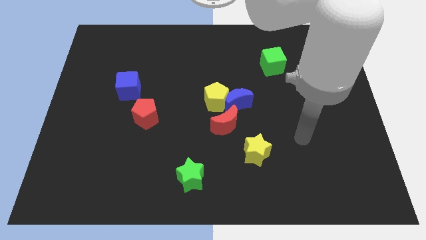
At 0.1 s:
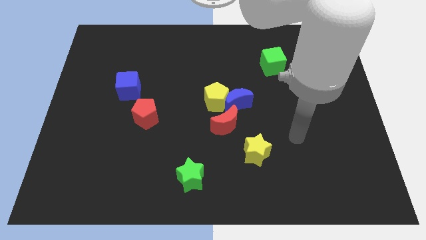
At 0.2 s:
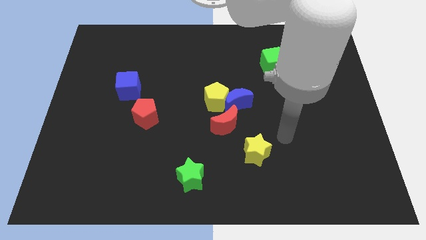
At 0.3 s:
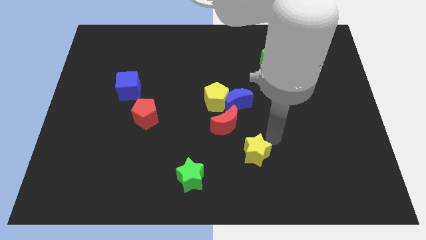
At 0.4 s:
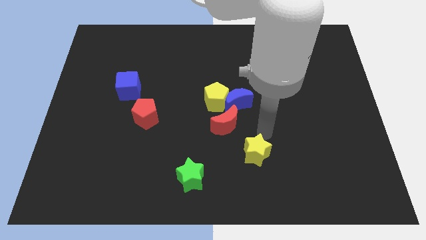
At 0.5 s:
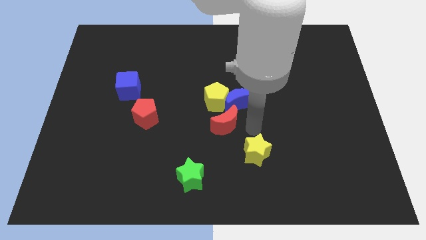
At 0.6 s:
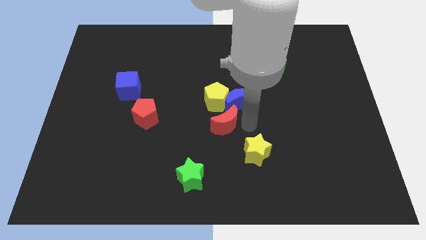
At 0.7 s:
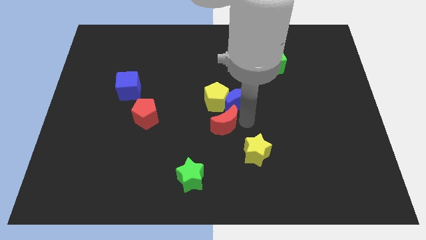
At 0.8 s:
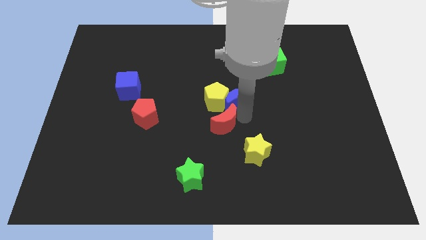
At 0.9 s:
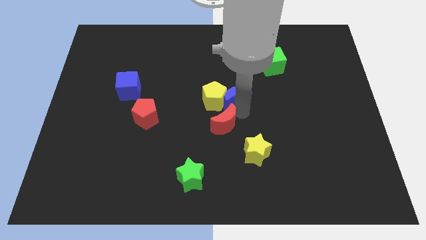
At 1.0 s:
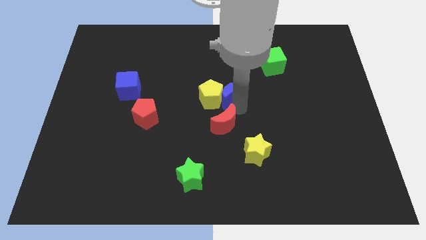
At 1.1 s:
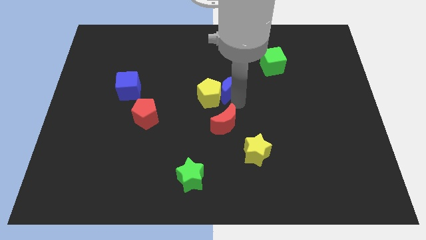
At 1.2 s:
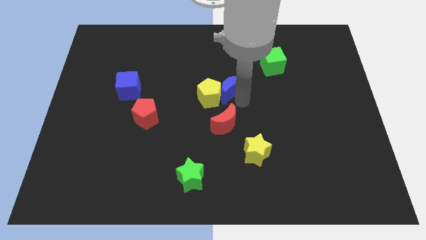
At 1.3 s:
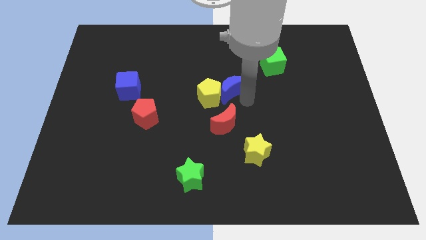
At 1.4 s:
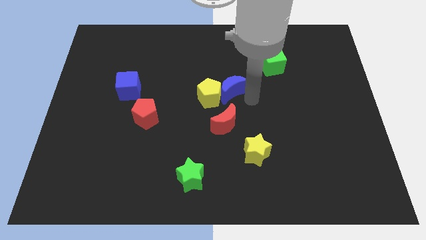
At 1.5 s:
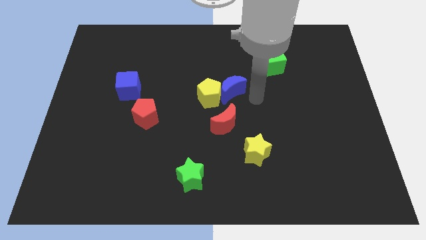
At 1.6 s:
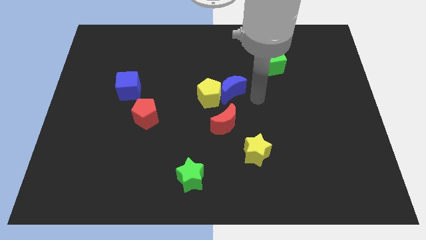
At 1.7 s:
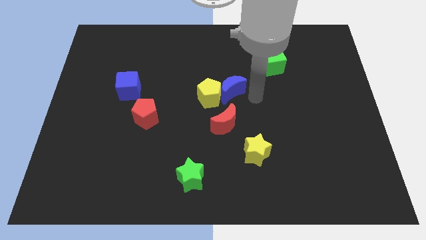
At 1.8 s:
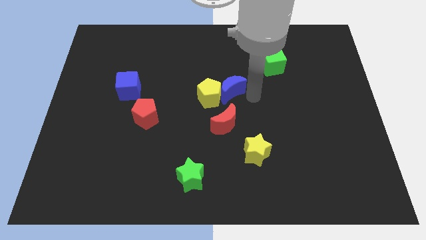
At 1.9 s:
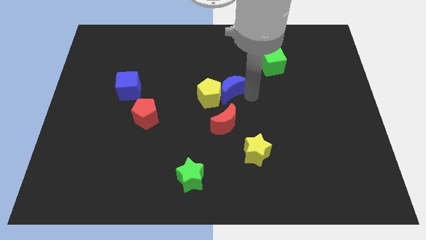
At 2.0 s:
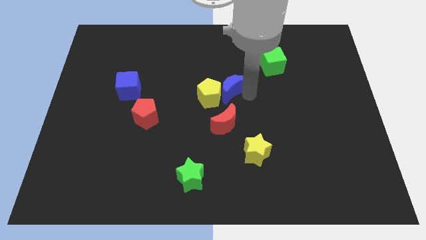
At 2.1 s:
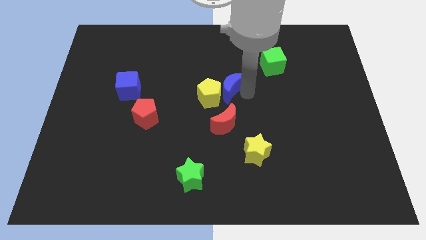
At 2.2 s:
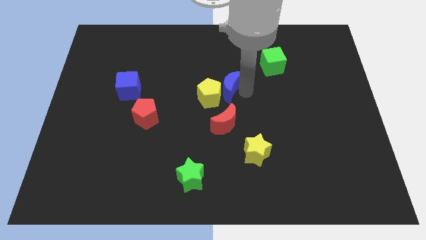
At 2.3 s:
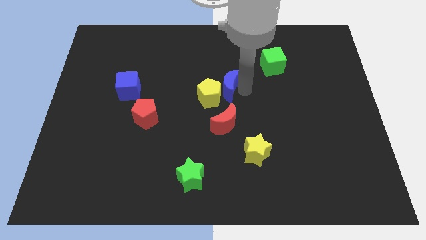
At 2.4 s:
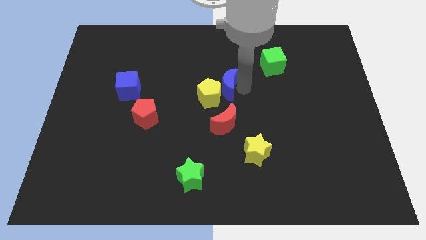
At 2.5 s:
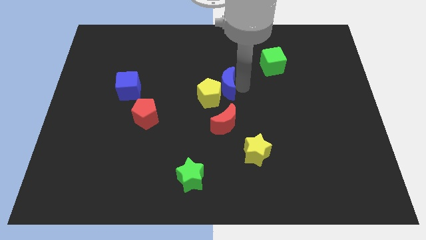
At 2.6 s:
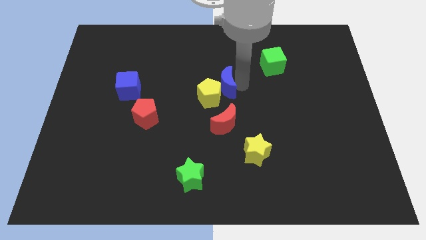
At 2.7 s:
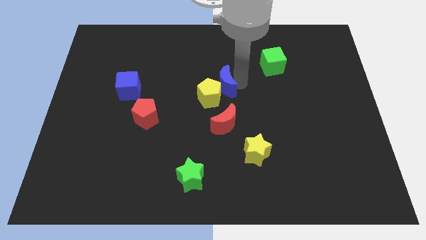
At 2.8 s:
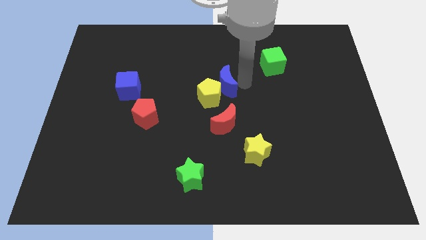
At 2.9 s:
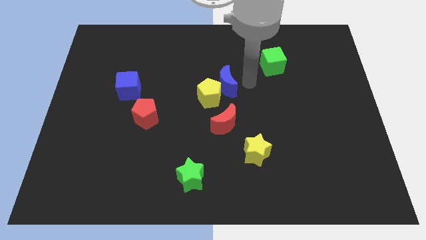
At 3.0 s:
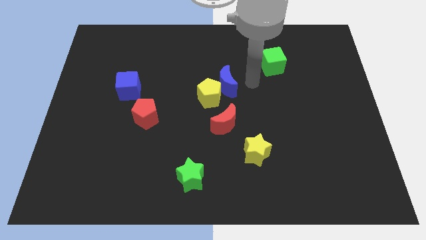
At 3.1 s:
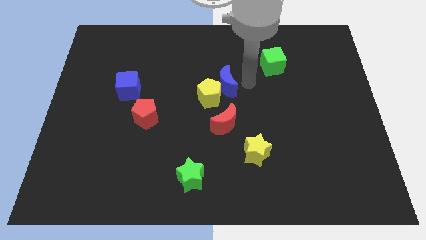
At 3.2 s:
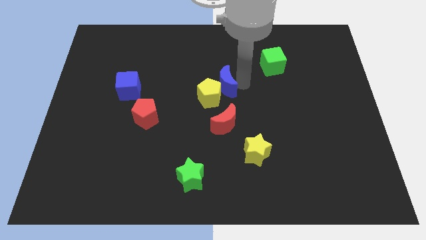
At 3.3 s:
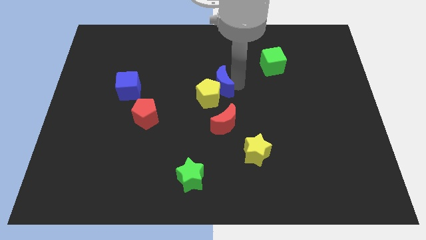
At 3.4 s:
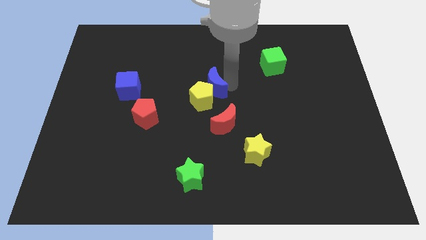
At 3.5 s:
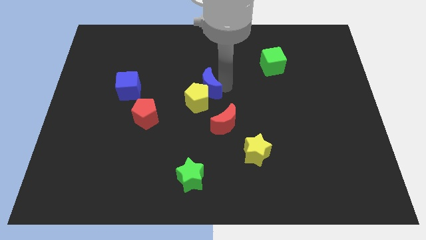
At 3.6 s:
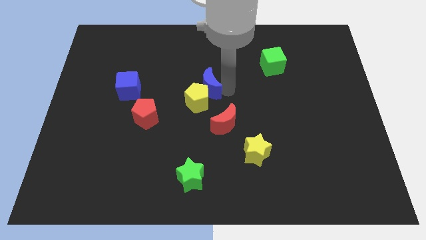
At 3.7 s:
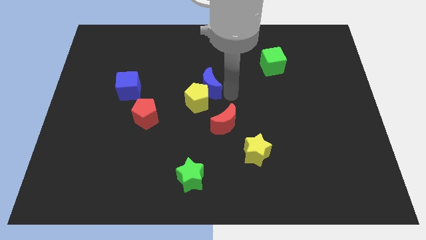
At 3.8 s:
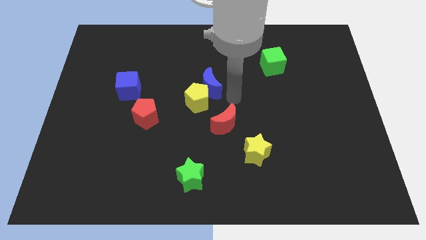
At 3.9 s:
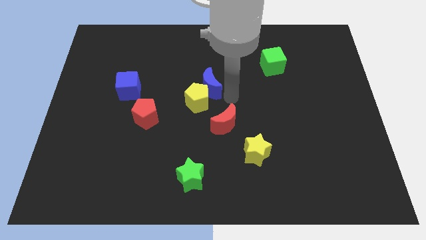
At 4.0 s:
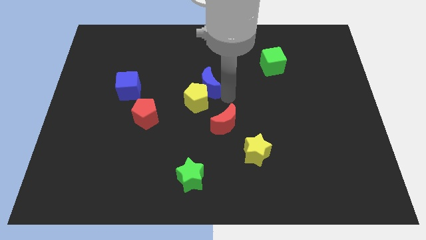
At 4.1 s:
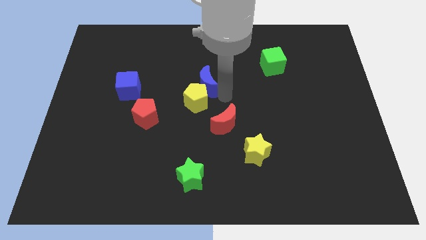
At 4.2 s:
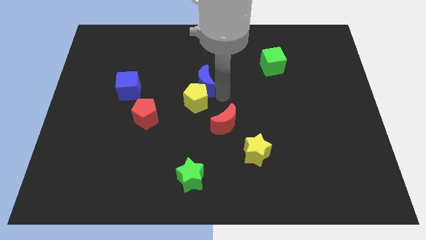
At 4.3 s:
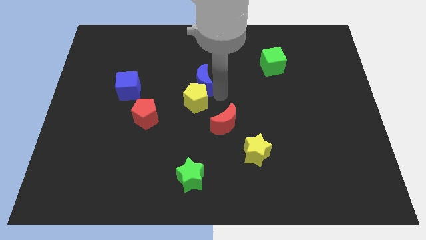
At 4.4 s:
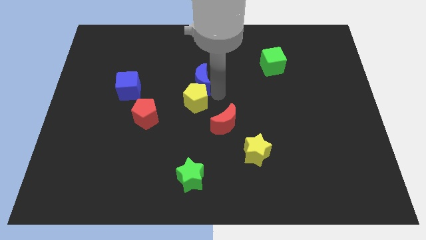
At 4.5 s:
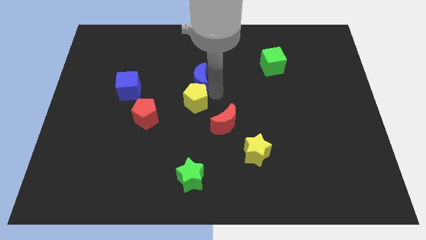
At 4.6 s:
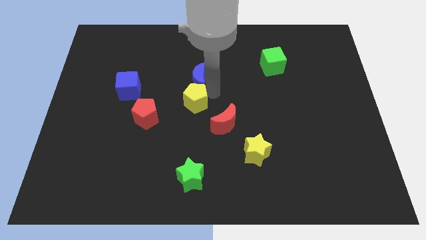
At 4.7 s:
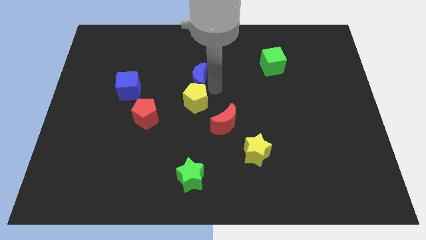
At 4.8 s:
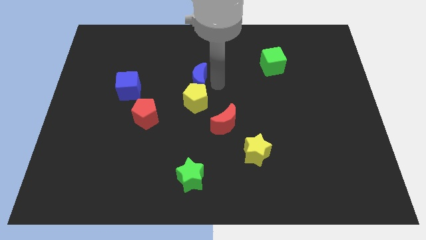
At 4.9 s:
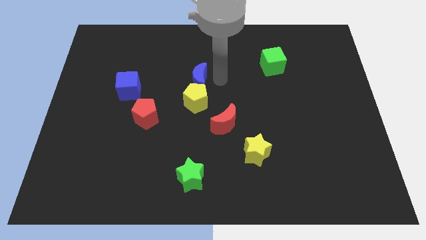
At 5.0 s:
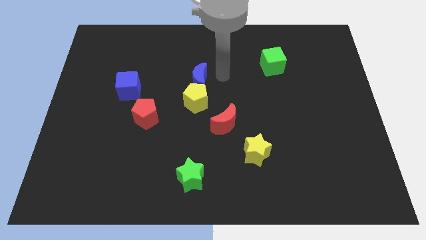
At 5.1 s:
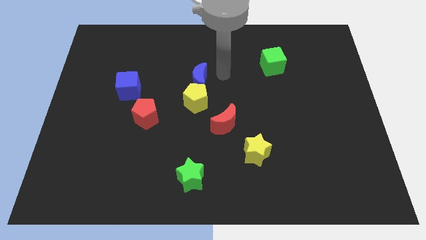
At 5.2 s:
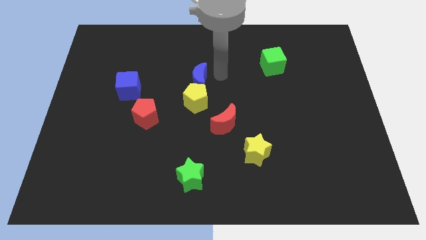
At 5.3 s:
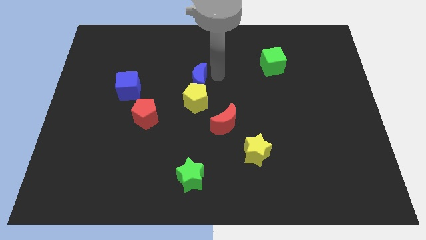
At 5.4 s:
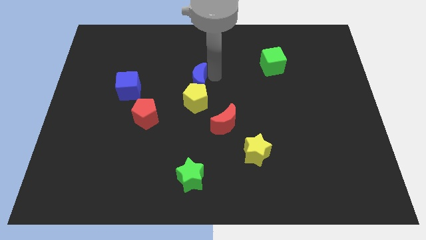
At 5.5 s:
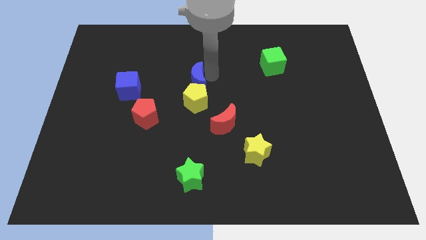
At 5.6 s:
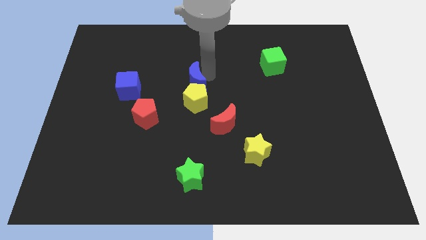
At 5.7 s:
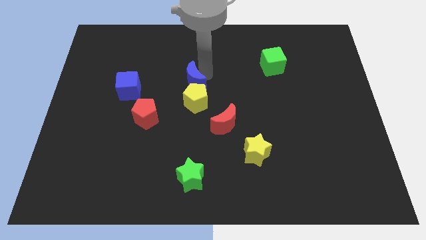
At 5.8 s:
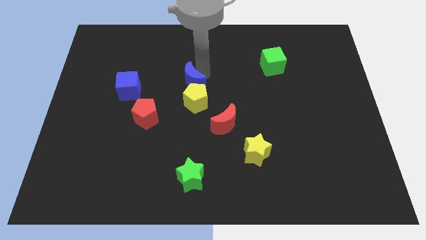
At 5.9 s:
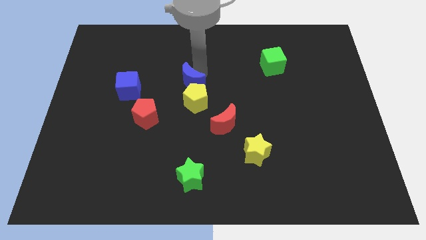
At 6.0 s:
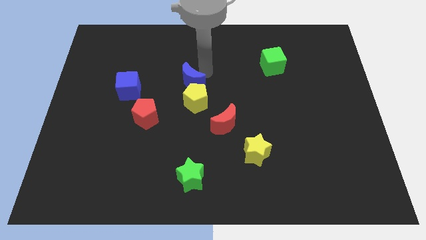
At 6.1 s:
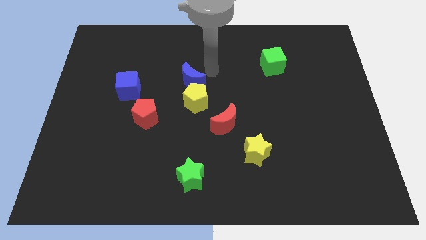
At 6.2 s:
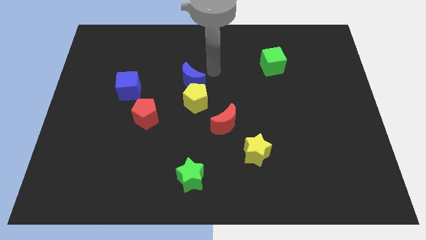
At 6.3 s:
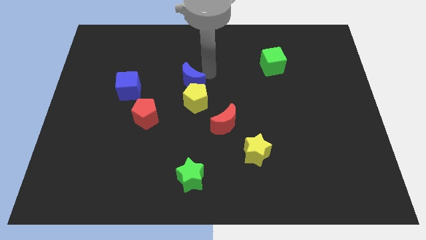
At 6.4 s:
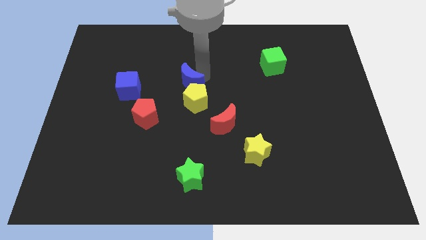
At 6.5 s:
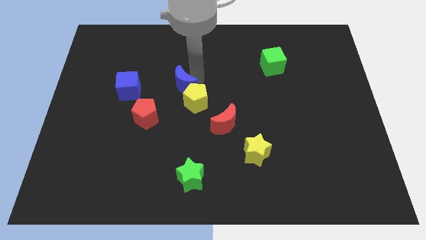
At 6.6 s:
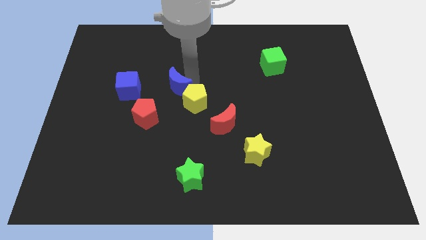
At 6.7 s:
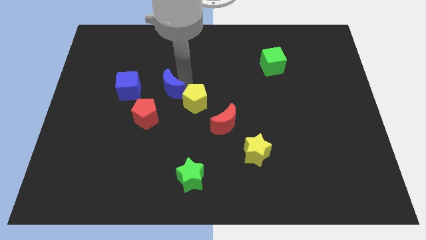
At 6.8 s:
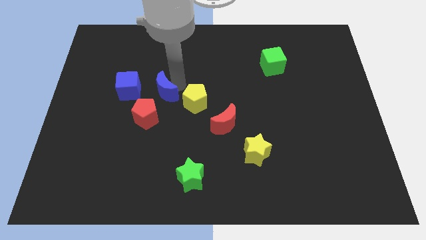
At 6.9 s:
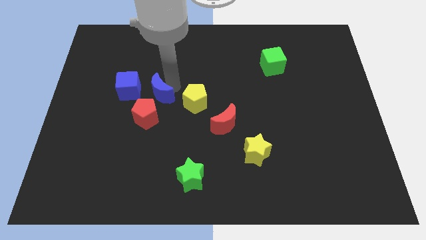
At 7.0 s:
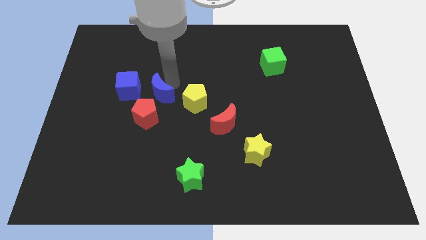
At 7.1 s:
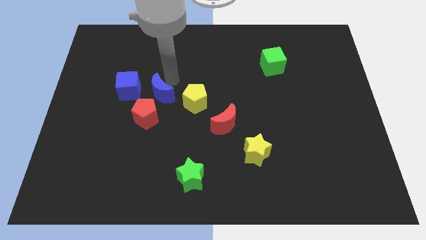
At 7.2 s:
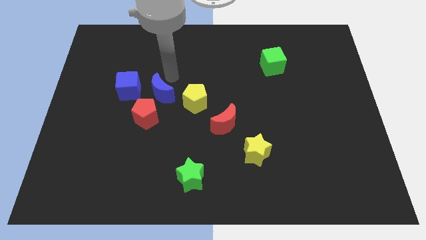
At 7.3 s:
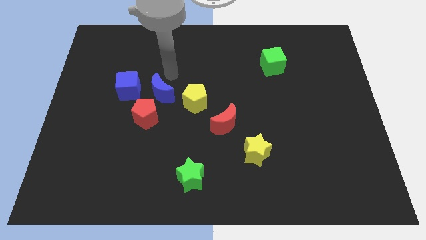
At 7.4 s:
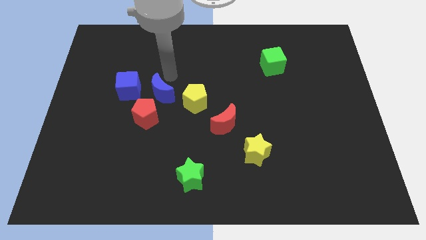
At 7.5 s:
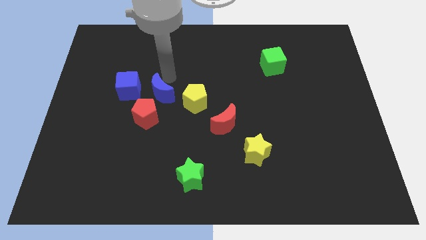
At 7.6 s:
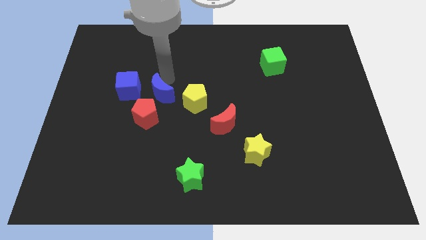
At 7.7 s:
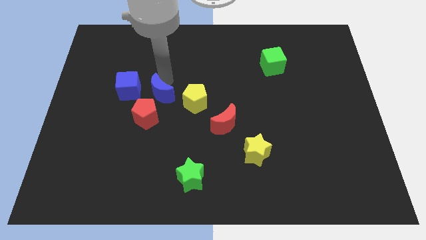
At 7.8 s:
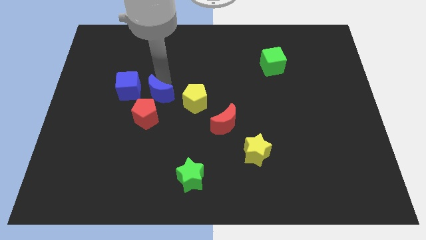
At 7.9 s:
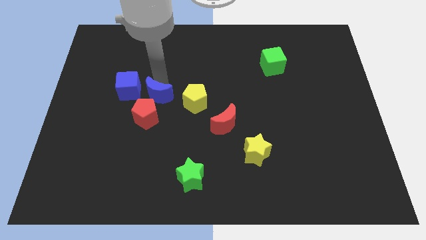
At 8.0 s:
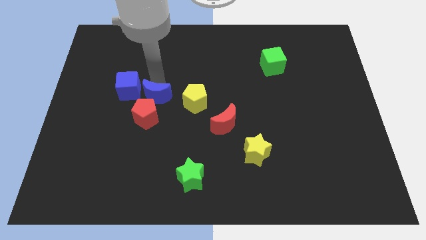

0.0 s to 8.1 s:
put the blue moon to the red pentagon

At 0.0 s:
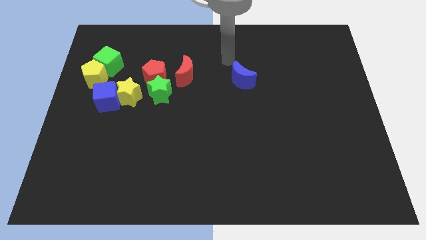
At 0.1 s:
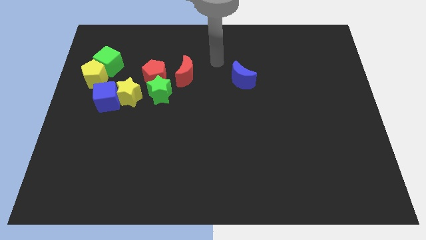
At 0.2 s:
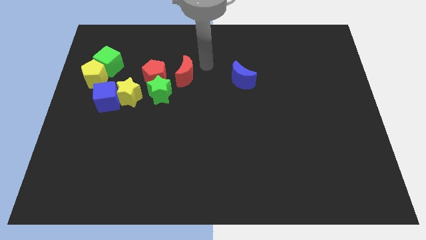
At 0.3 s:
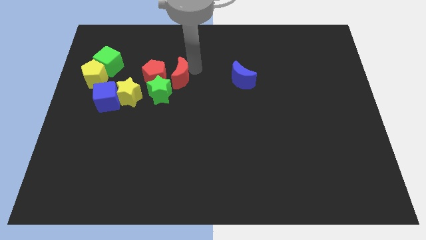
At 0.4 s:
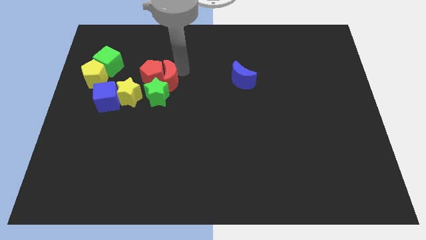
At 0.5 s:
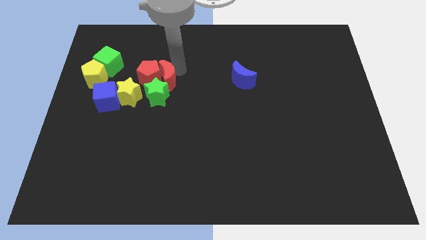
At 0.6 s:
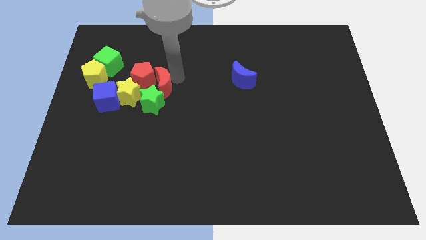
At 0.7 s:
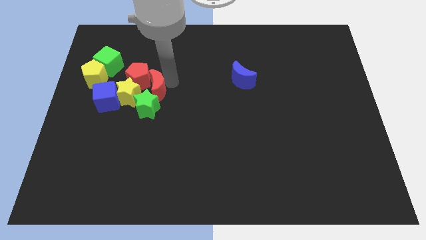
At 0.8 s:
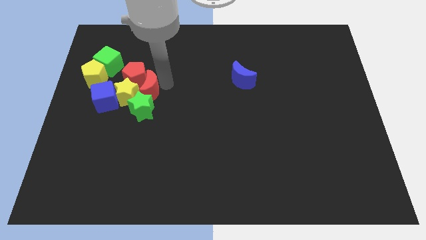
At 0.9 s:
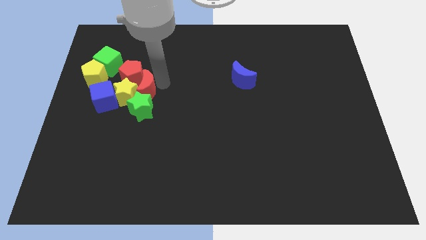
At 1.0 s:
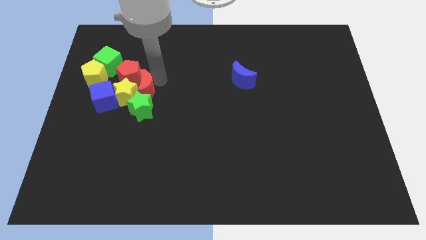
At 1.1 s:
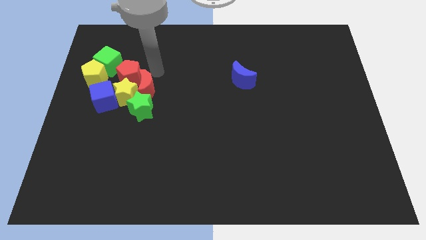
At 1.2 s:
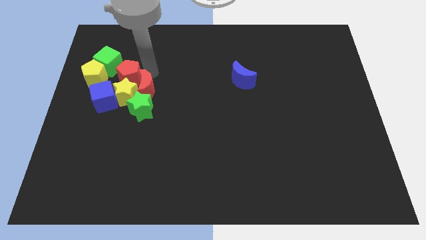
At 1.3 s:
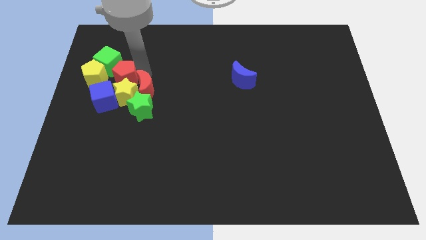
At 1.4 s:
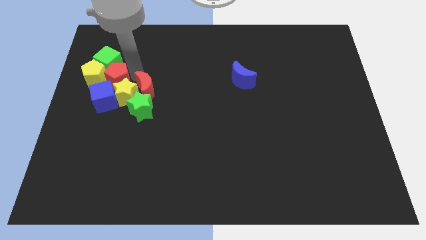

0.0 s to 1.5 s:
push the red pentagon towards the yellow pentagon
